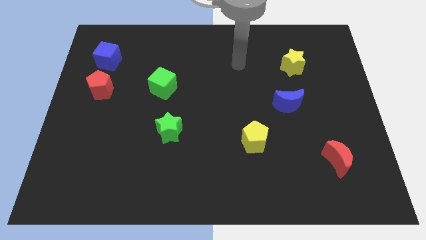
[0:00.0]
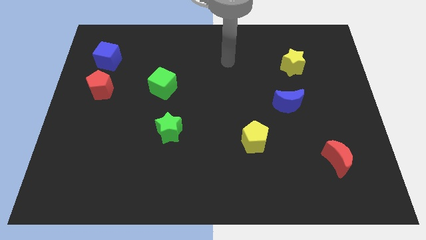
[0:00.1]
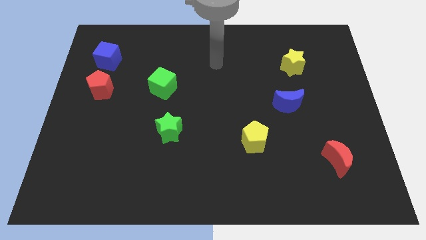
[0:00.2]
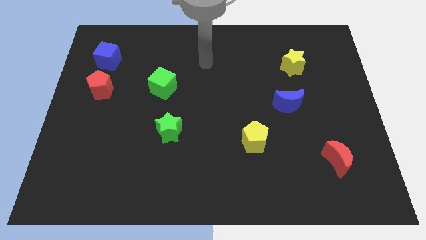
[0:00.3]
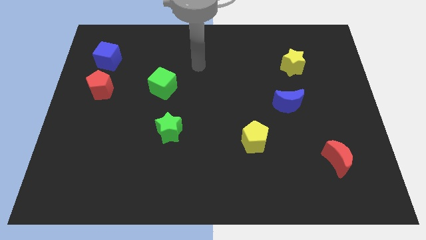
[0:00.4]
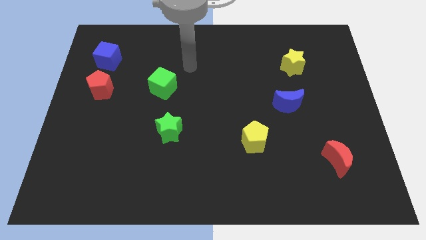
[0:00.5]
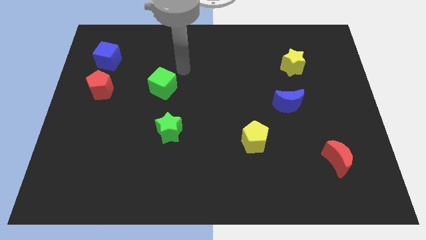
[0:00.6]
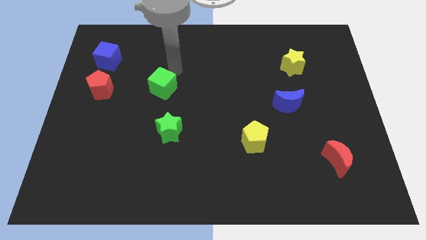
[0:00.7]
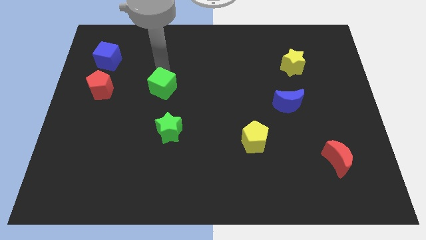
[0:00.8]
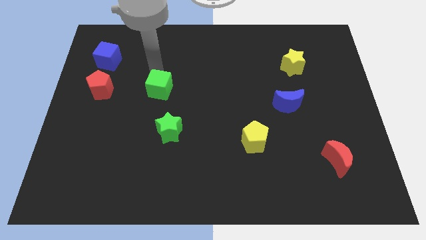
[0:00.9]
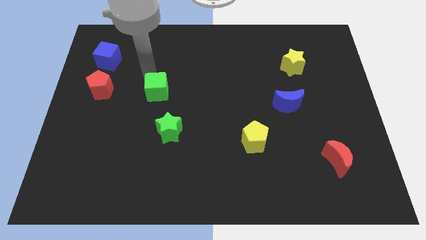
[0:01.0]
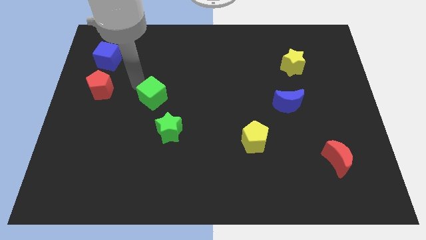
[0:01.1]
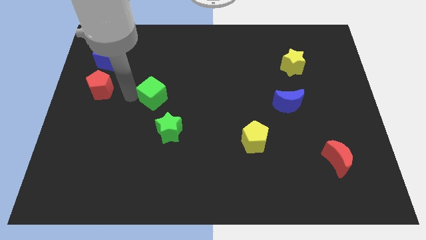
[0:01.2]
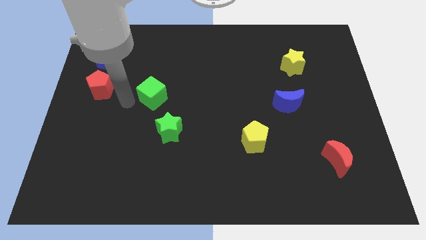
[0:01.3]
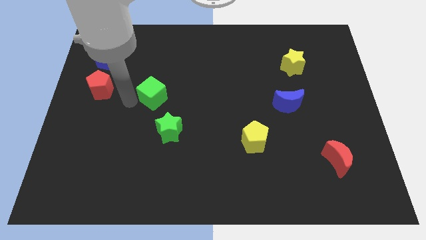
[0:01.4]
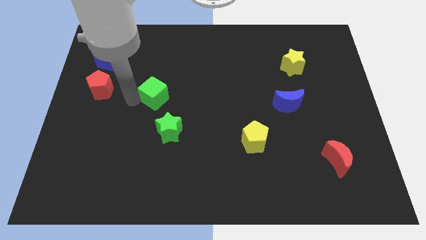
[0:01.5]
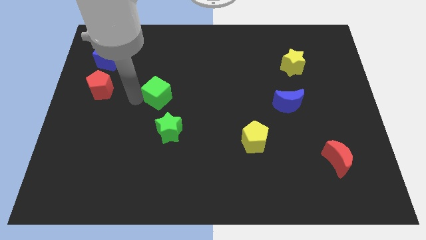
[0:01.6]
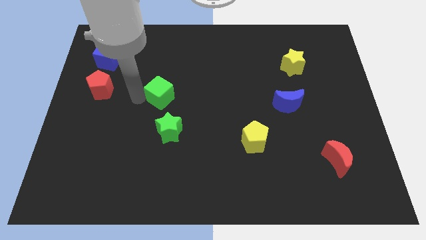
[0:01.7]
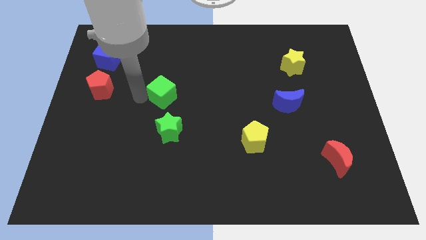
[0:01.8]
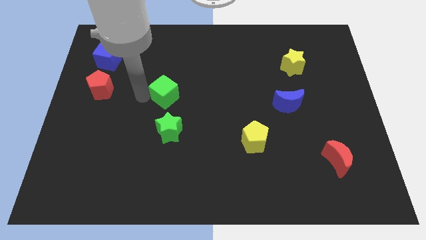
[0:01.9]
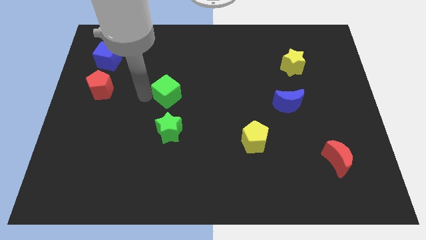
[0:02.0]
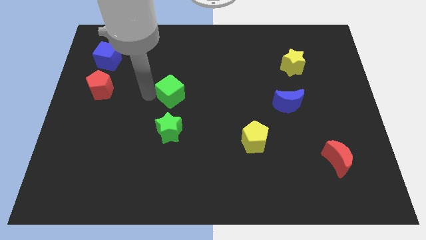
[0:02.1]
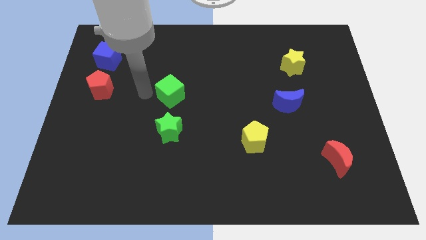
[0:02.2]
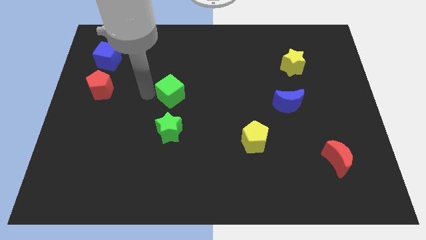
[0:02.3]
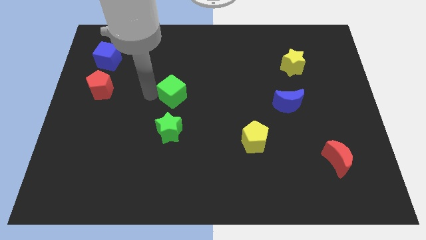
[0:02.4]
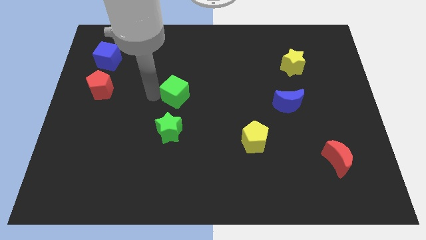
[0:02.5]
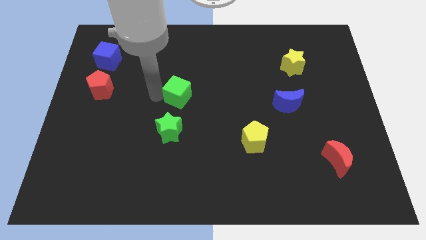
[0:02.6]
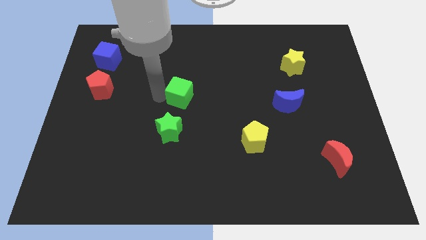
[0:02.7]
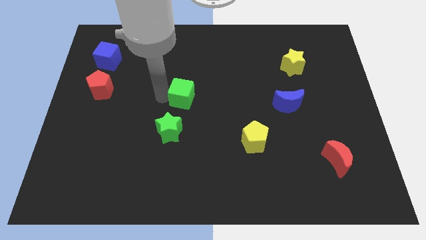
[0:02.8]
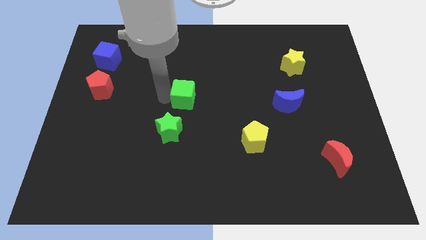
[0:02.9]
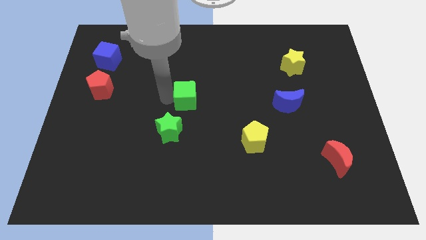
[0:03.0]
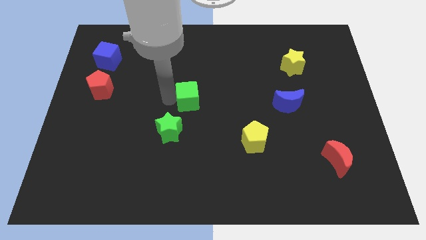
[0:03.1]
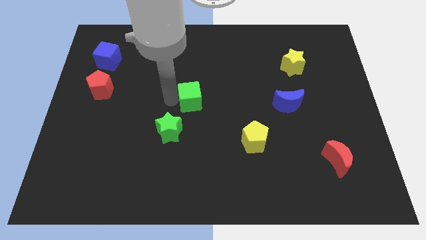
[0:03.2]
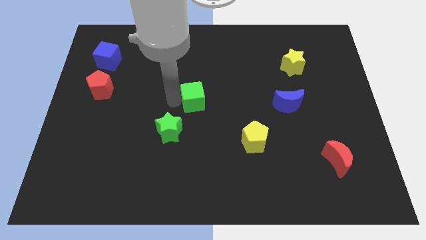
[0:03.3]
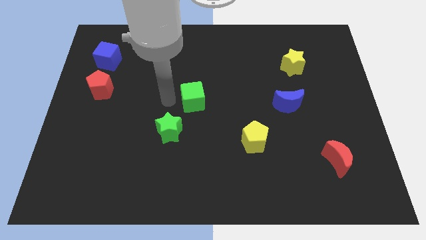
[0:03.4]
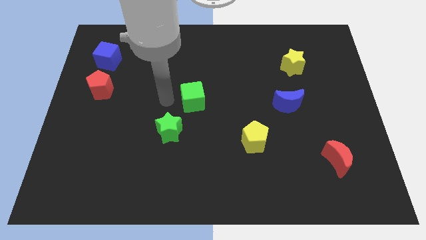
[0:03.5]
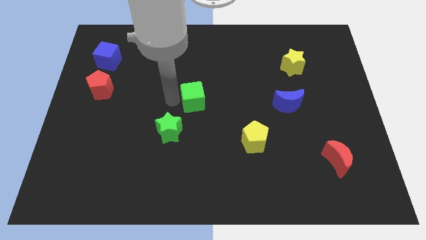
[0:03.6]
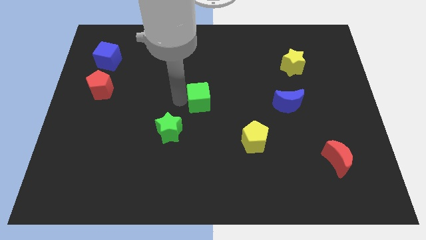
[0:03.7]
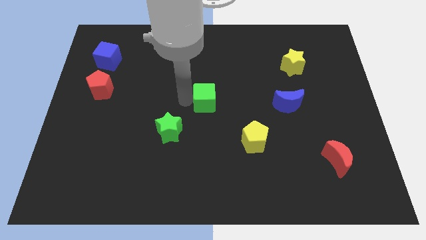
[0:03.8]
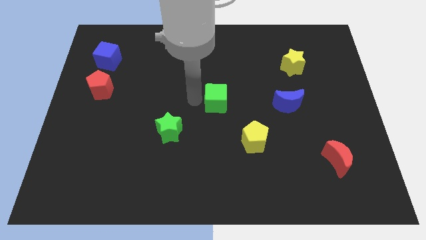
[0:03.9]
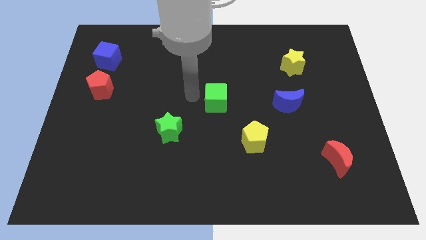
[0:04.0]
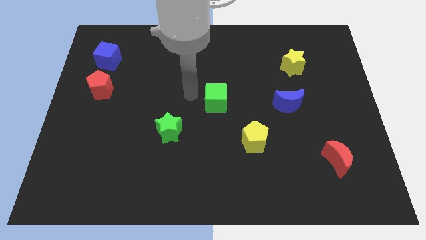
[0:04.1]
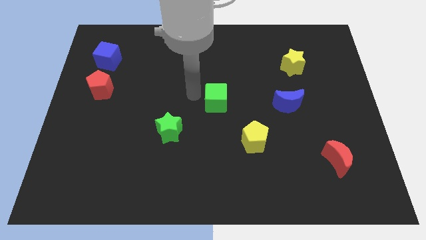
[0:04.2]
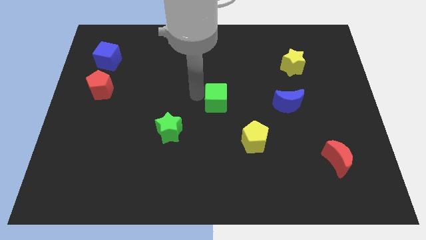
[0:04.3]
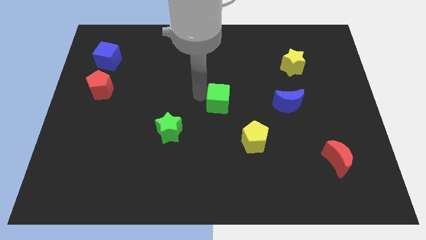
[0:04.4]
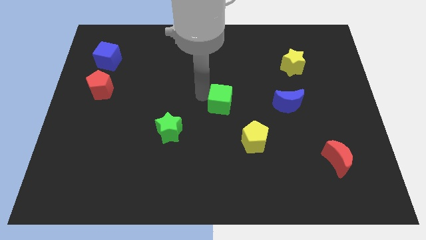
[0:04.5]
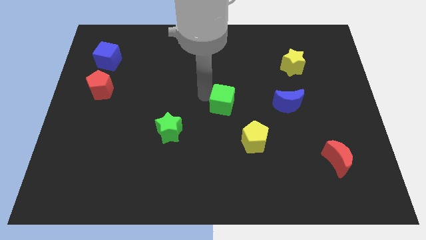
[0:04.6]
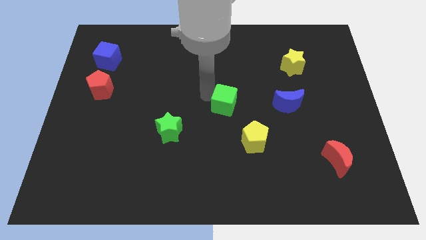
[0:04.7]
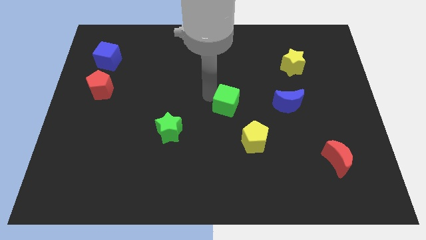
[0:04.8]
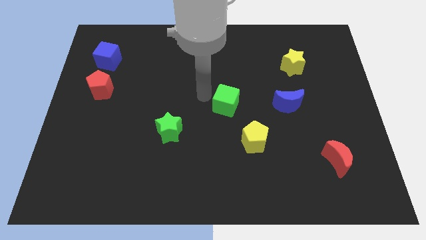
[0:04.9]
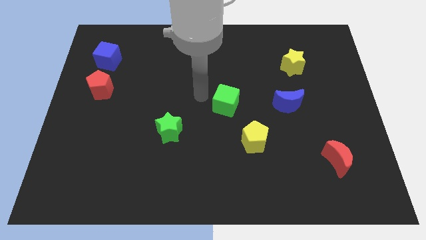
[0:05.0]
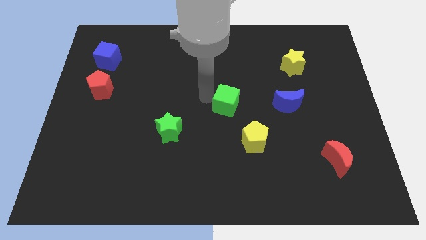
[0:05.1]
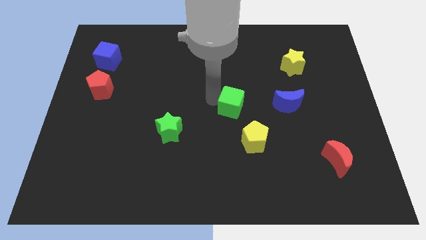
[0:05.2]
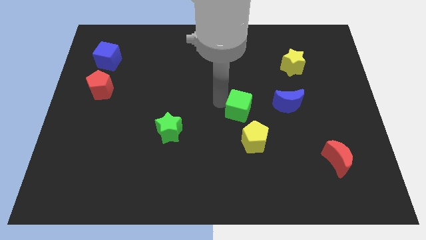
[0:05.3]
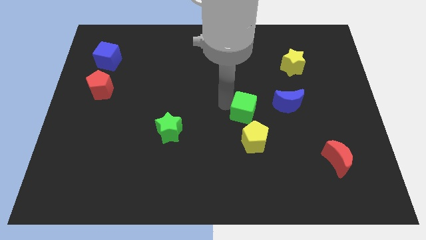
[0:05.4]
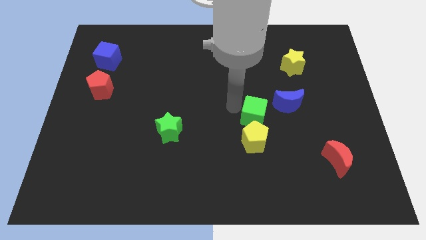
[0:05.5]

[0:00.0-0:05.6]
push the green cube to the top right side of the yellow pentagon

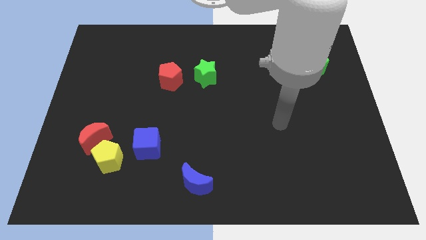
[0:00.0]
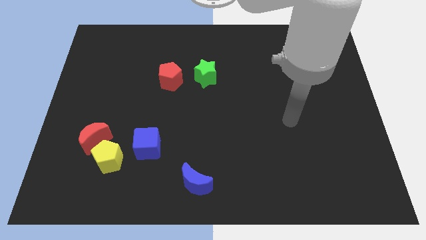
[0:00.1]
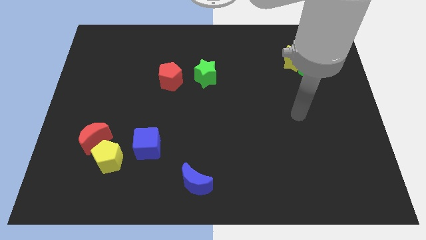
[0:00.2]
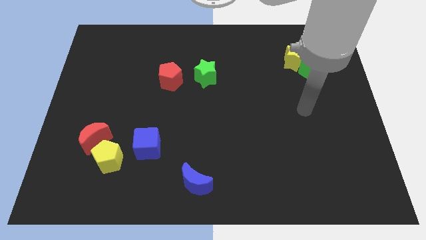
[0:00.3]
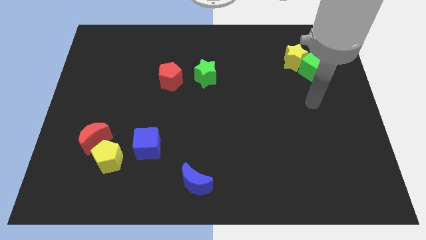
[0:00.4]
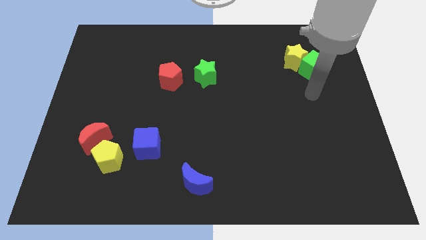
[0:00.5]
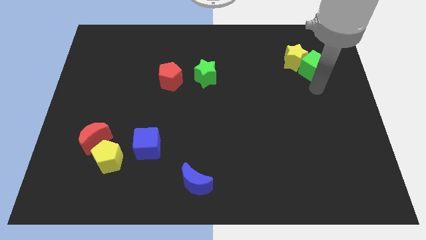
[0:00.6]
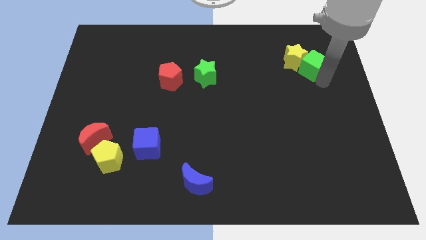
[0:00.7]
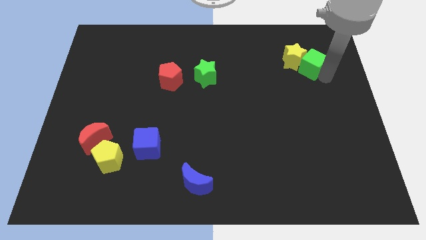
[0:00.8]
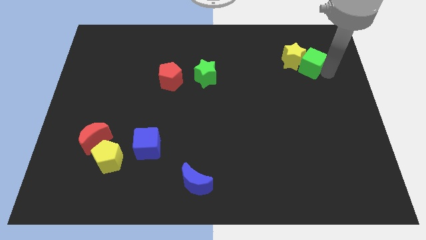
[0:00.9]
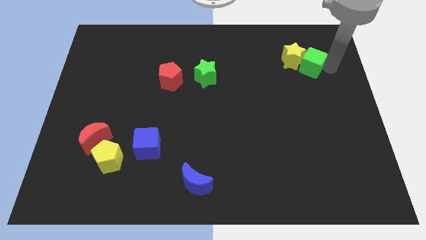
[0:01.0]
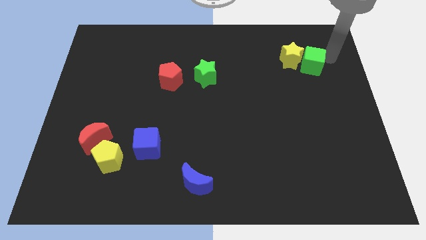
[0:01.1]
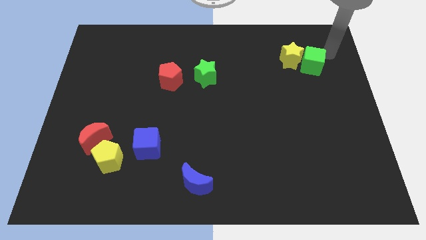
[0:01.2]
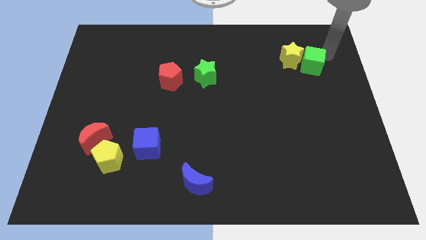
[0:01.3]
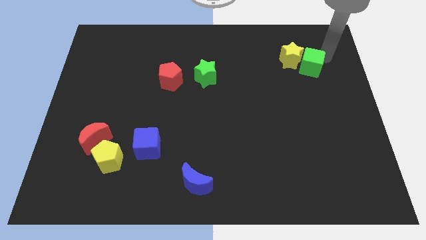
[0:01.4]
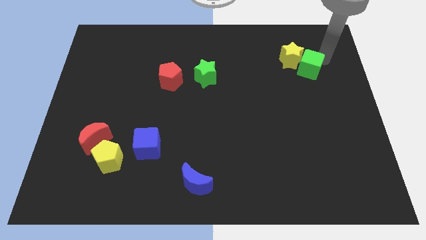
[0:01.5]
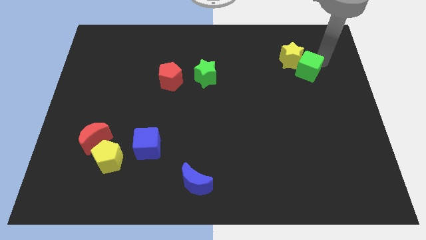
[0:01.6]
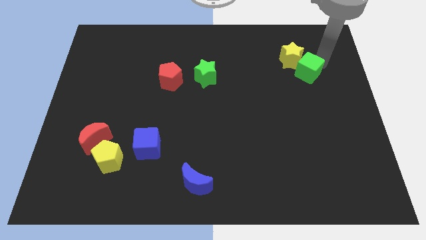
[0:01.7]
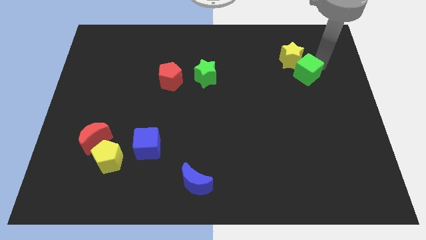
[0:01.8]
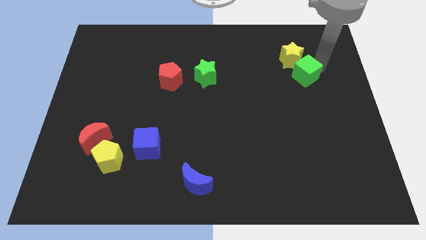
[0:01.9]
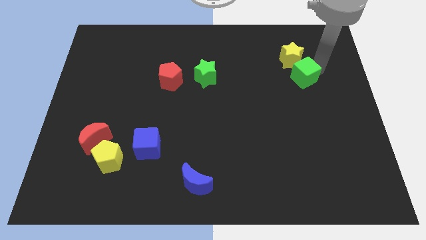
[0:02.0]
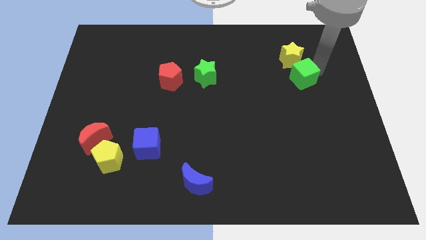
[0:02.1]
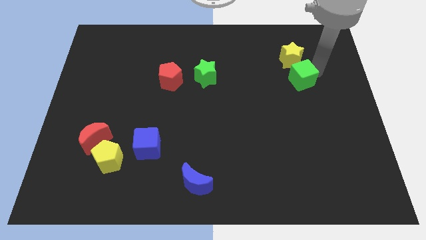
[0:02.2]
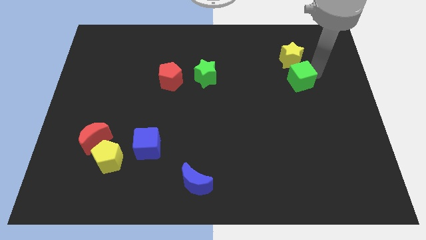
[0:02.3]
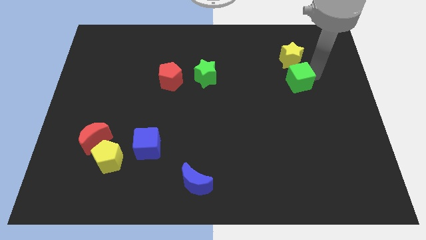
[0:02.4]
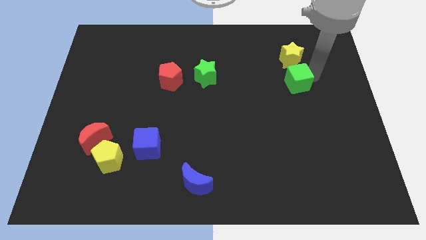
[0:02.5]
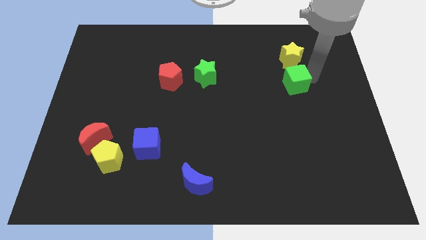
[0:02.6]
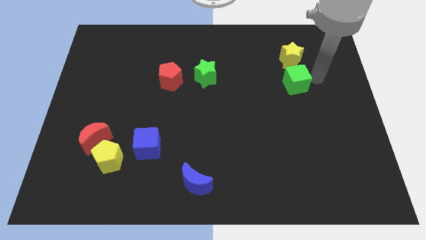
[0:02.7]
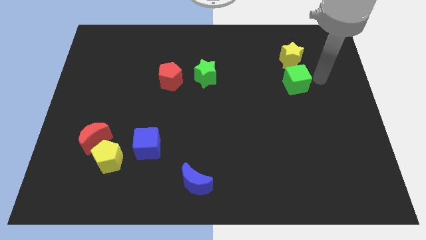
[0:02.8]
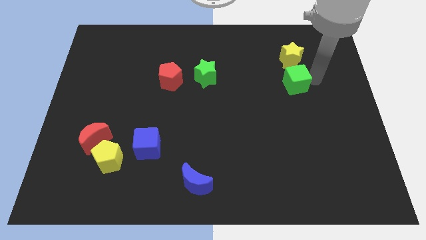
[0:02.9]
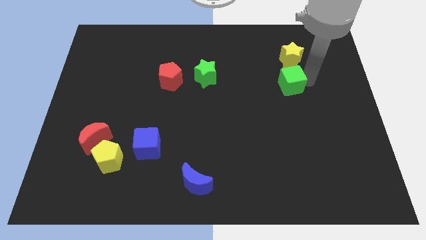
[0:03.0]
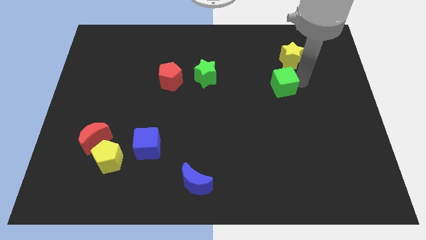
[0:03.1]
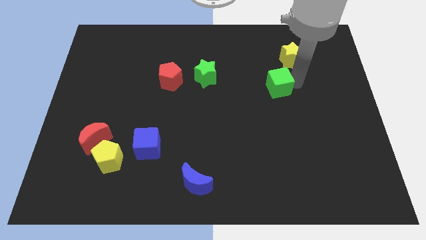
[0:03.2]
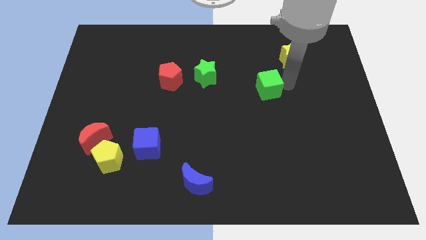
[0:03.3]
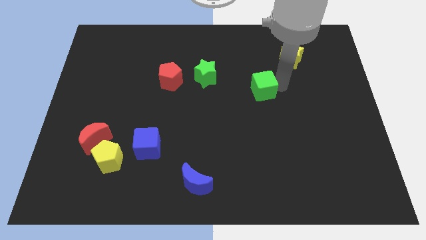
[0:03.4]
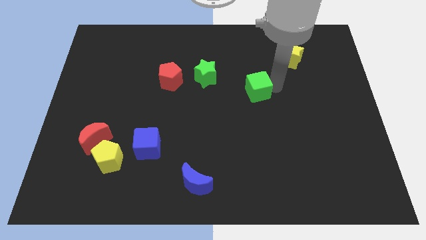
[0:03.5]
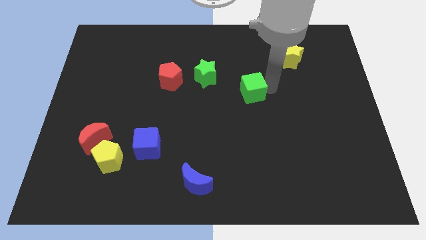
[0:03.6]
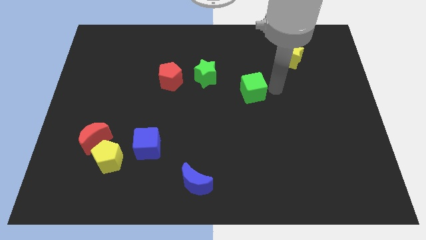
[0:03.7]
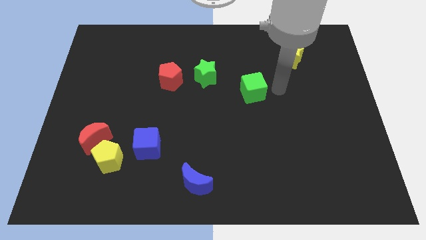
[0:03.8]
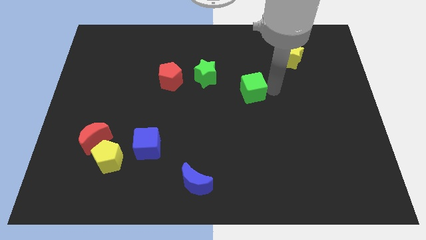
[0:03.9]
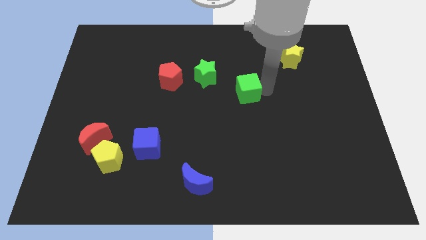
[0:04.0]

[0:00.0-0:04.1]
slide the green cube to the bottom right side of the green star
